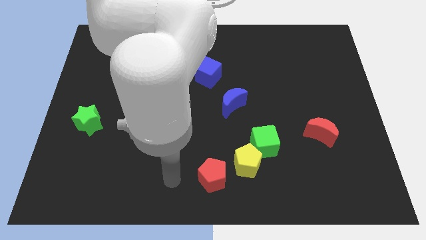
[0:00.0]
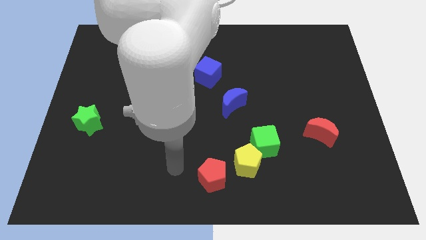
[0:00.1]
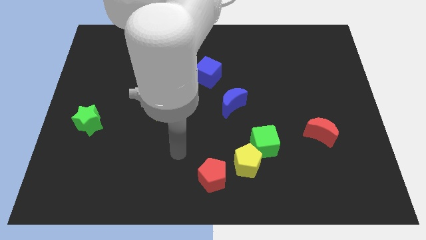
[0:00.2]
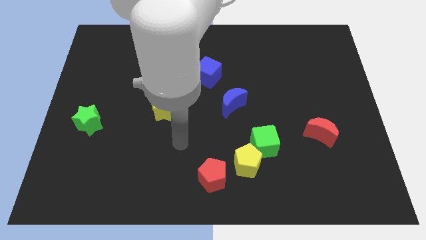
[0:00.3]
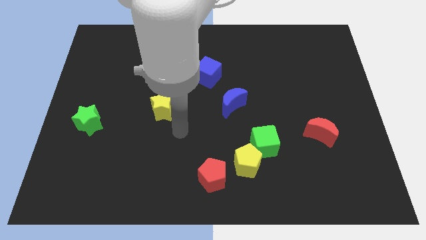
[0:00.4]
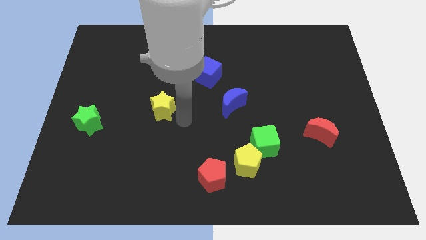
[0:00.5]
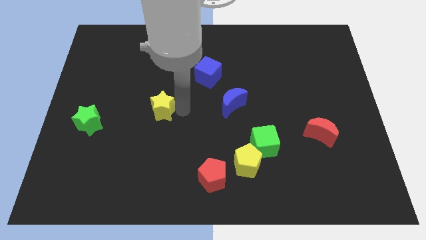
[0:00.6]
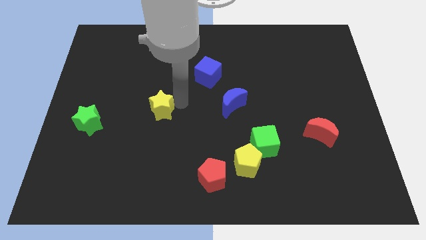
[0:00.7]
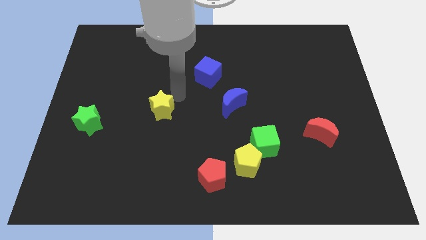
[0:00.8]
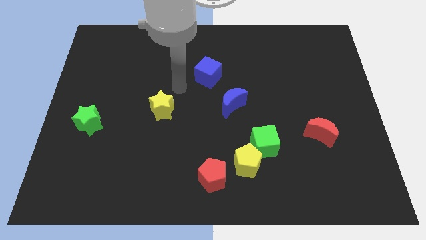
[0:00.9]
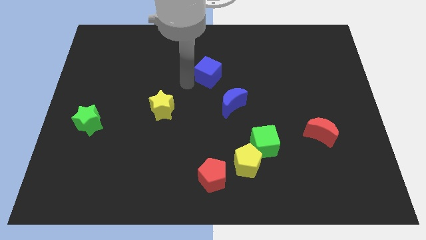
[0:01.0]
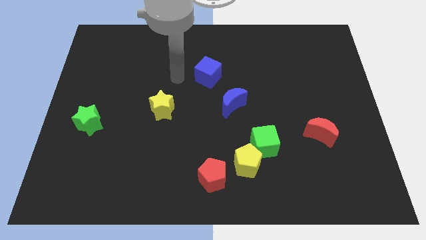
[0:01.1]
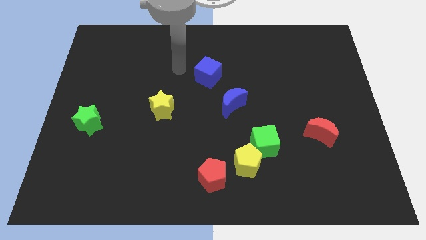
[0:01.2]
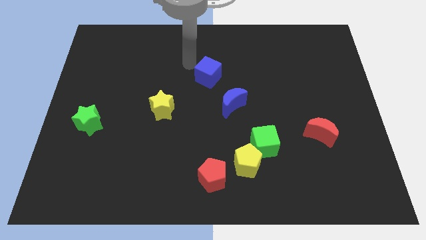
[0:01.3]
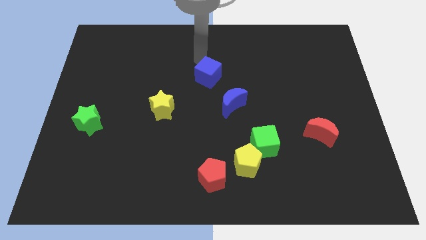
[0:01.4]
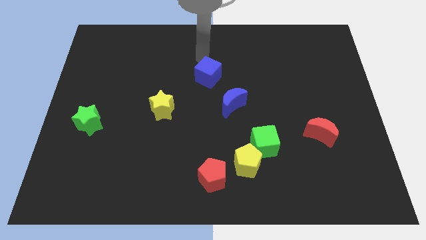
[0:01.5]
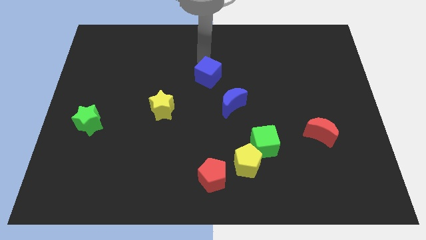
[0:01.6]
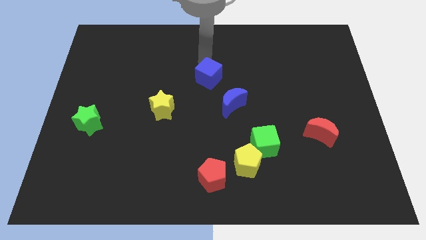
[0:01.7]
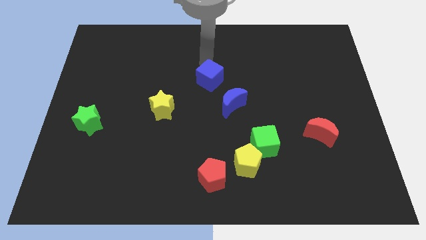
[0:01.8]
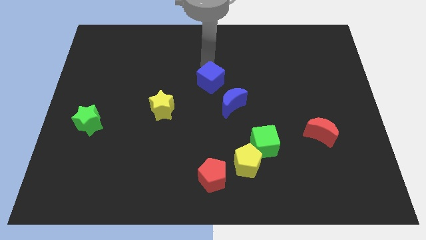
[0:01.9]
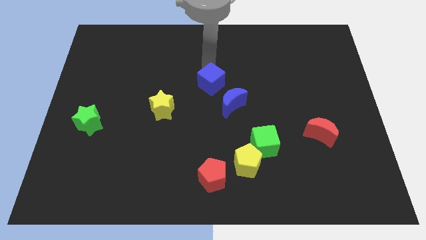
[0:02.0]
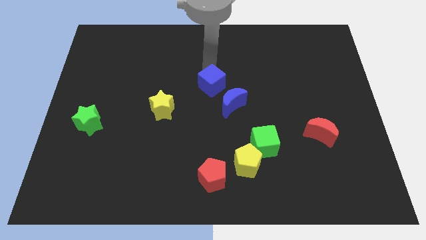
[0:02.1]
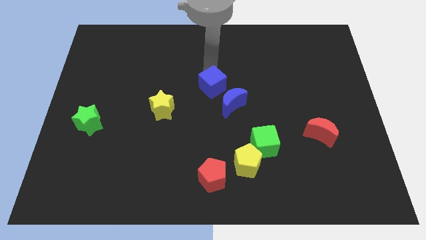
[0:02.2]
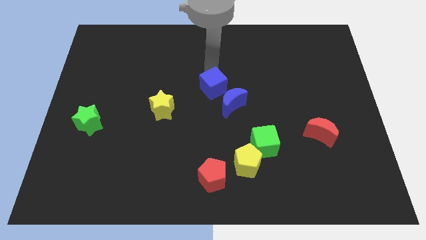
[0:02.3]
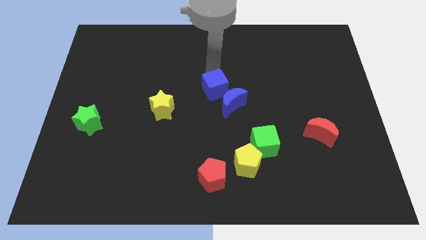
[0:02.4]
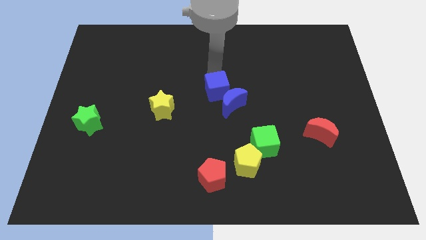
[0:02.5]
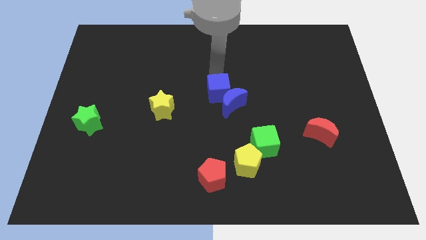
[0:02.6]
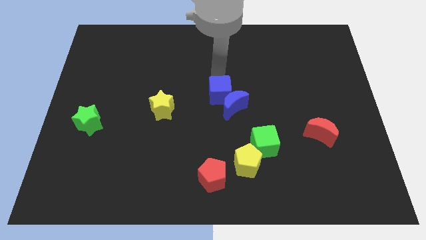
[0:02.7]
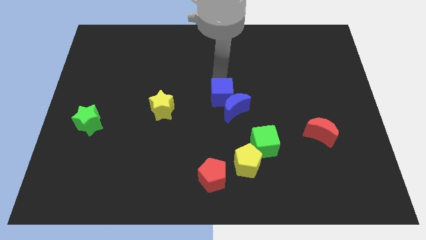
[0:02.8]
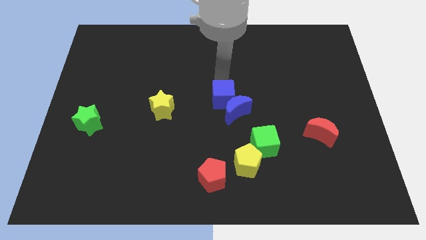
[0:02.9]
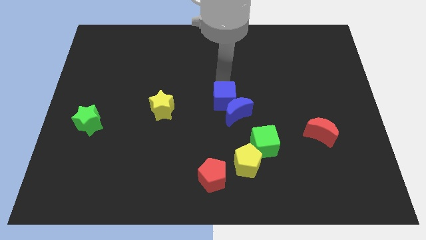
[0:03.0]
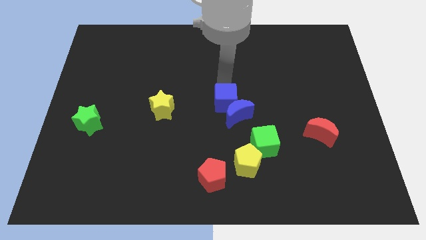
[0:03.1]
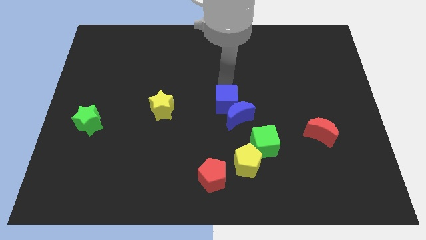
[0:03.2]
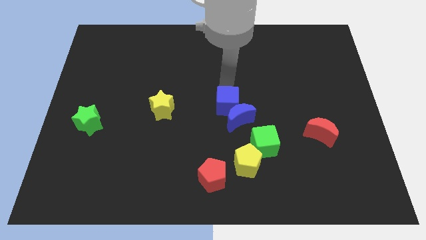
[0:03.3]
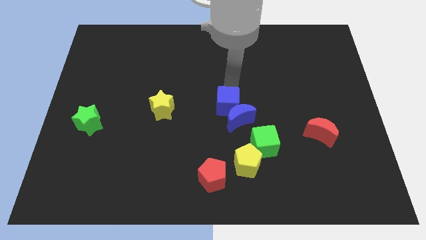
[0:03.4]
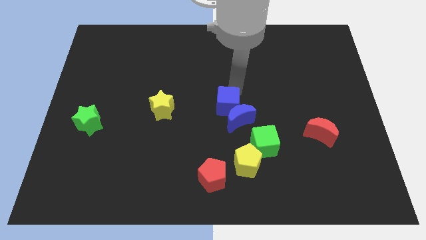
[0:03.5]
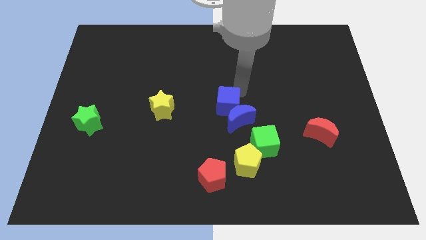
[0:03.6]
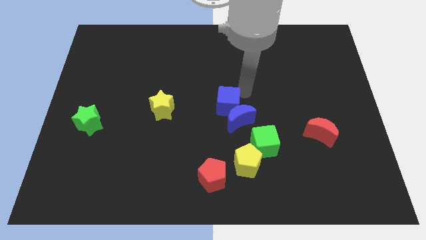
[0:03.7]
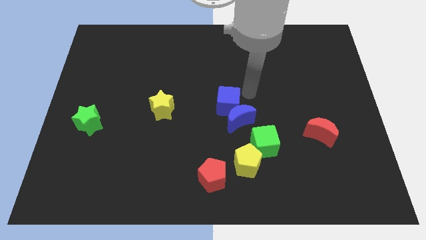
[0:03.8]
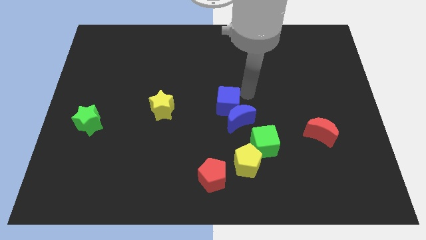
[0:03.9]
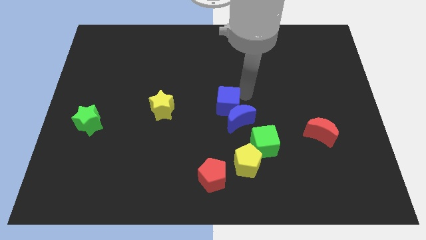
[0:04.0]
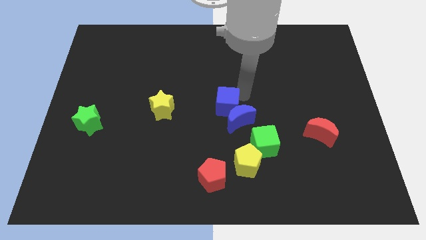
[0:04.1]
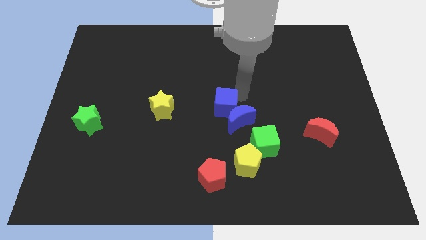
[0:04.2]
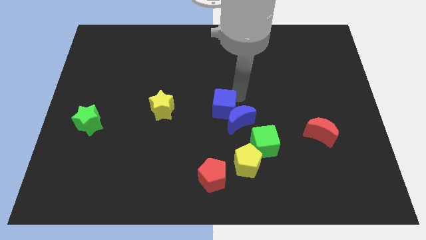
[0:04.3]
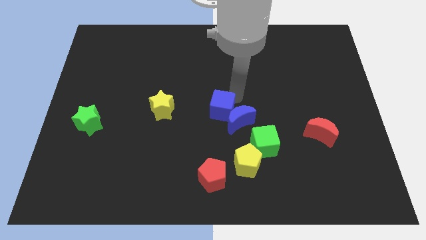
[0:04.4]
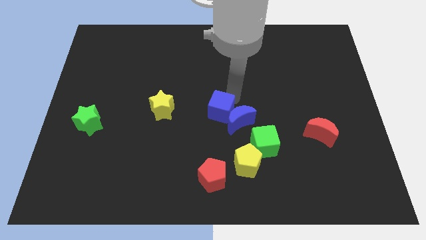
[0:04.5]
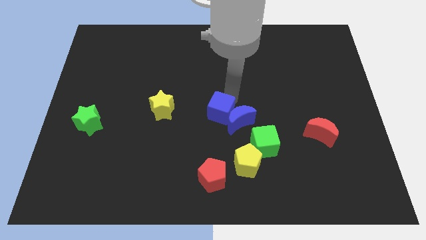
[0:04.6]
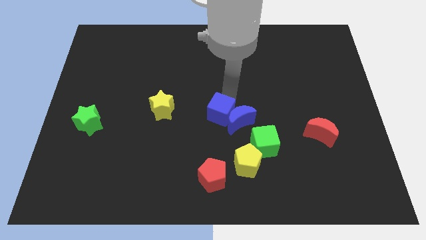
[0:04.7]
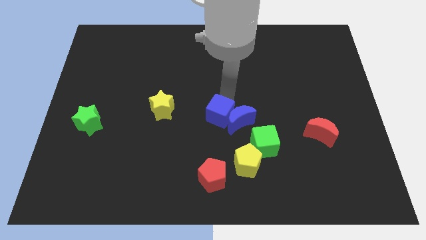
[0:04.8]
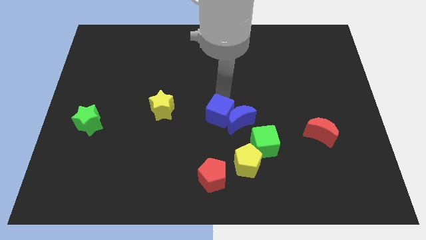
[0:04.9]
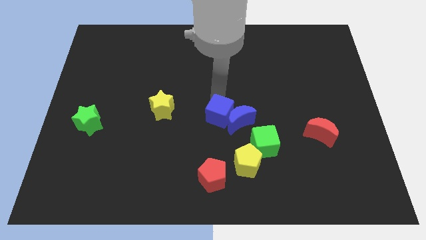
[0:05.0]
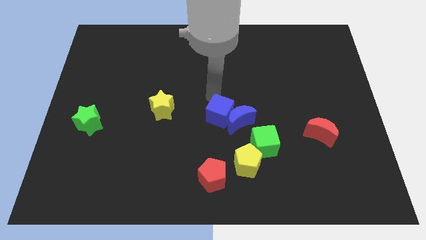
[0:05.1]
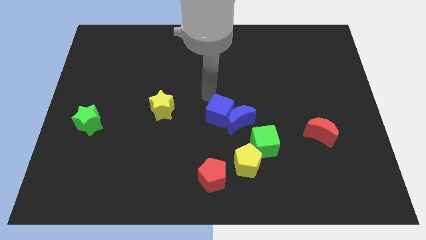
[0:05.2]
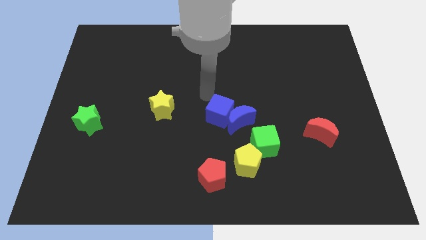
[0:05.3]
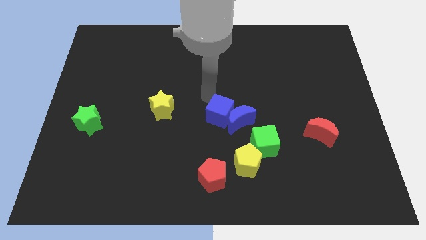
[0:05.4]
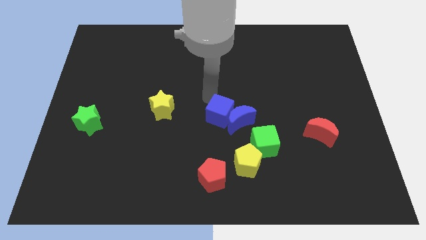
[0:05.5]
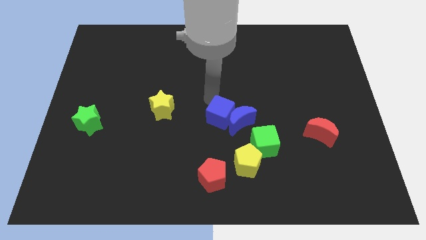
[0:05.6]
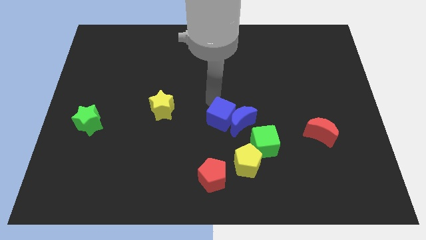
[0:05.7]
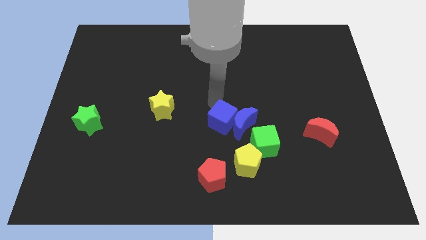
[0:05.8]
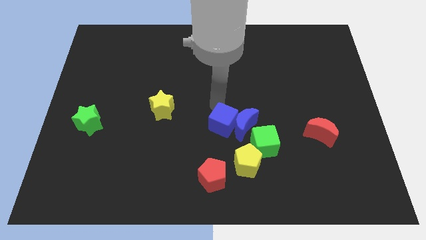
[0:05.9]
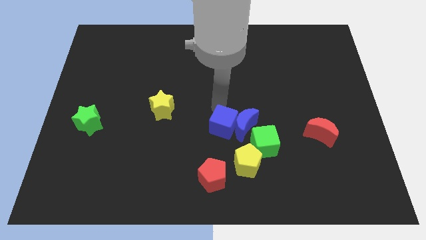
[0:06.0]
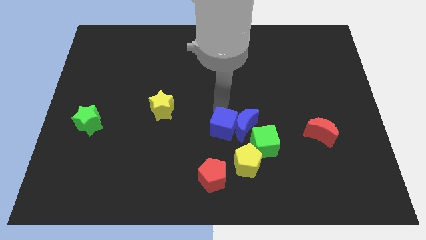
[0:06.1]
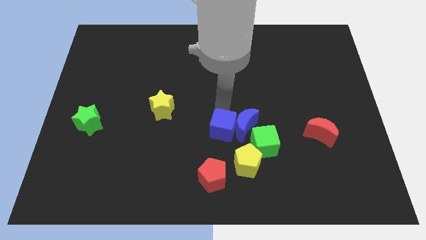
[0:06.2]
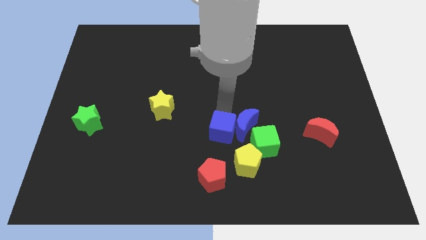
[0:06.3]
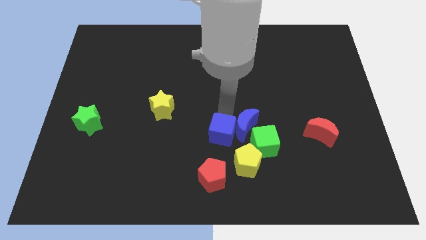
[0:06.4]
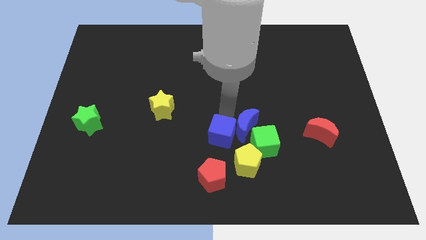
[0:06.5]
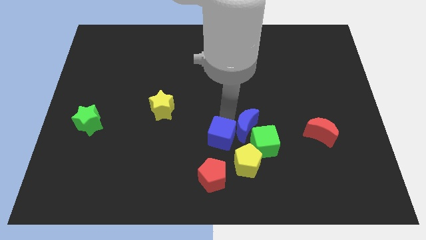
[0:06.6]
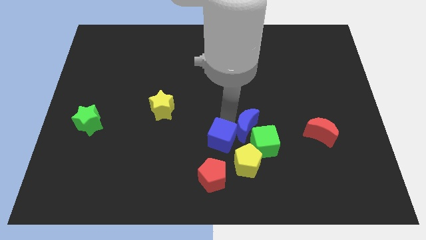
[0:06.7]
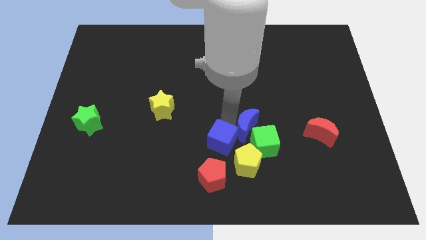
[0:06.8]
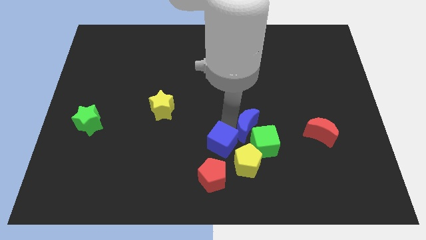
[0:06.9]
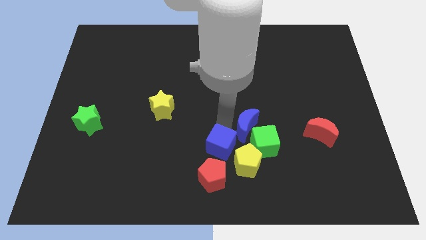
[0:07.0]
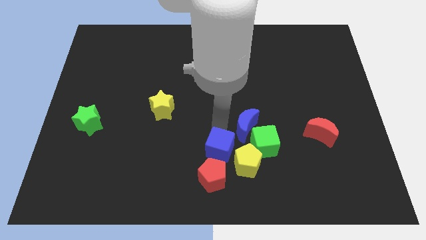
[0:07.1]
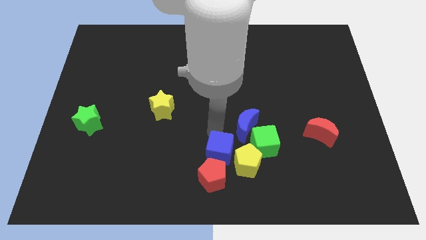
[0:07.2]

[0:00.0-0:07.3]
move the blue cube close to the yellow pentagon

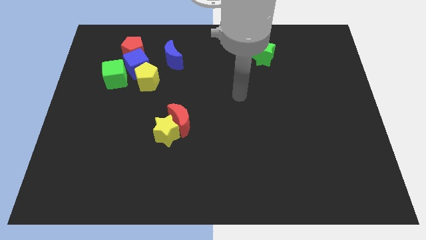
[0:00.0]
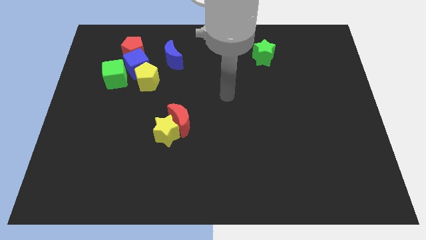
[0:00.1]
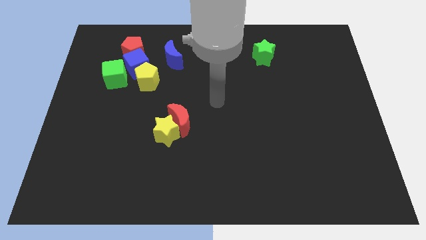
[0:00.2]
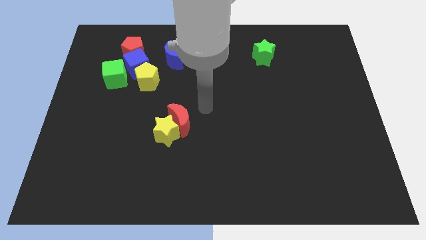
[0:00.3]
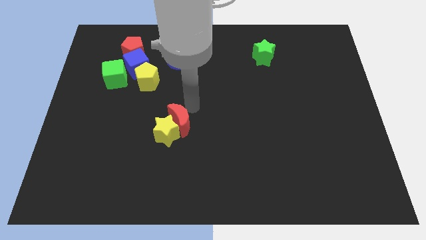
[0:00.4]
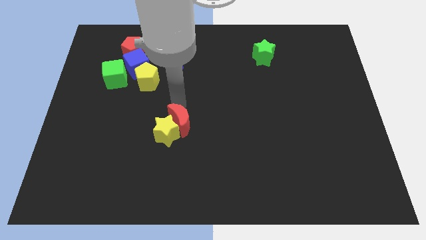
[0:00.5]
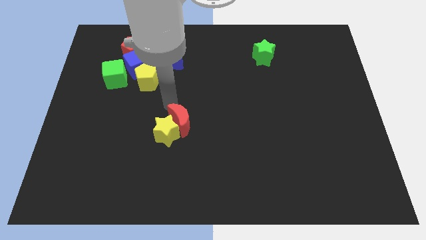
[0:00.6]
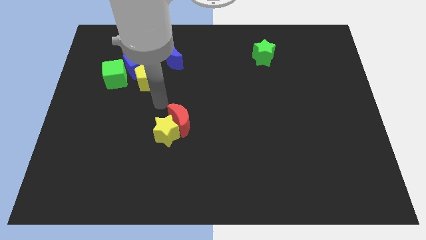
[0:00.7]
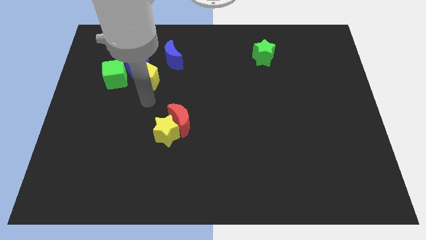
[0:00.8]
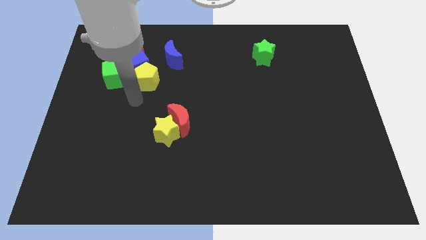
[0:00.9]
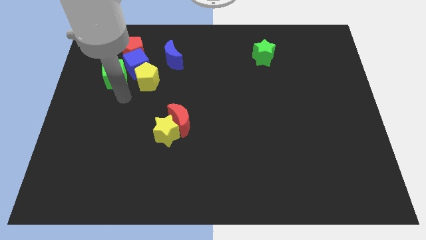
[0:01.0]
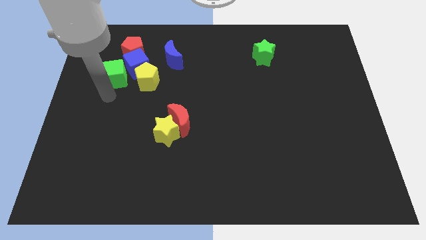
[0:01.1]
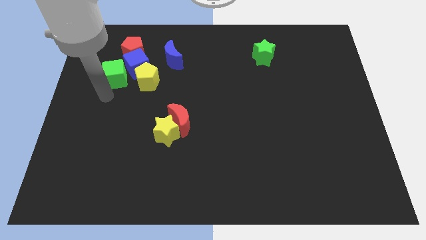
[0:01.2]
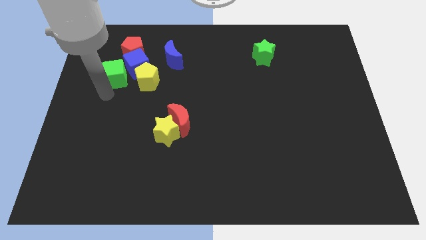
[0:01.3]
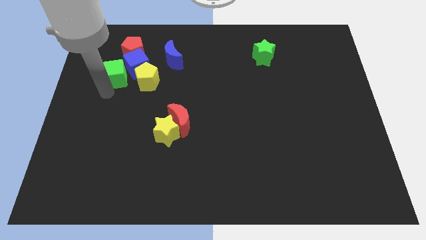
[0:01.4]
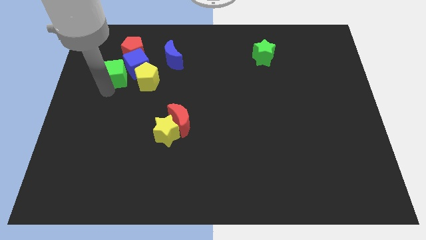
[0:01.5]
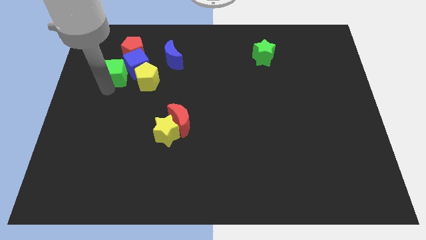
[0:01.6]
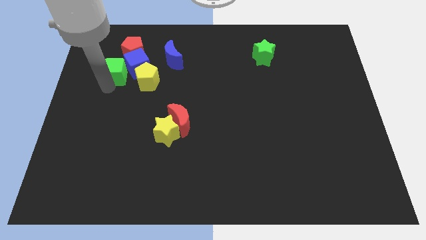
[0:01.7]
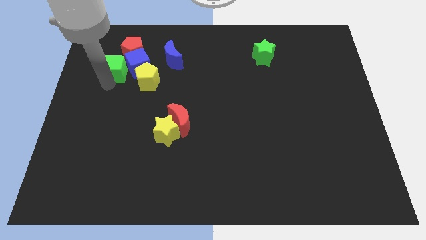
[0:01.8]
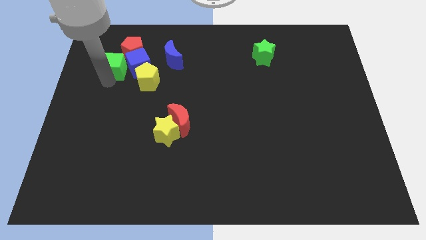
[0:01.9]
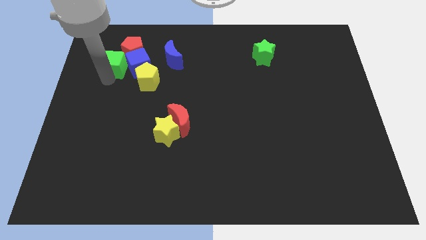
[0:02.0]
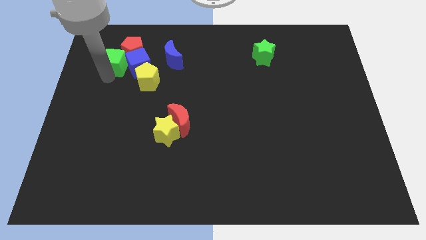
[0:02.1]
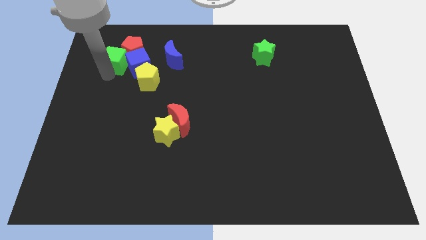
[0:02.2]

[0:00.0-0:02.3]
put the green cube towards the red pentagon
